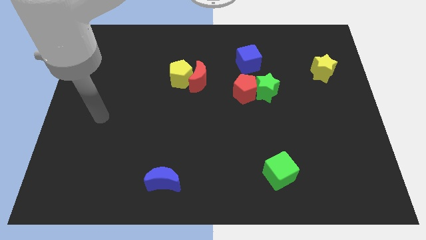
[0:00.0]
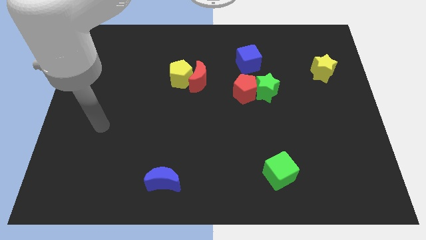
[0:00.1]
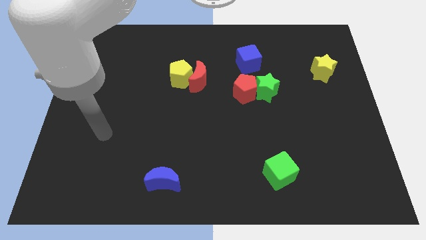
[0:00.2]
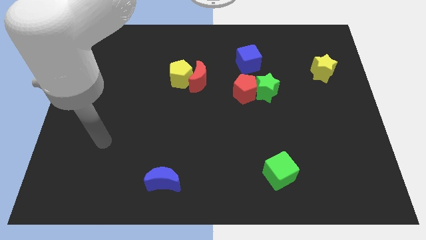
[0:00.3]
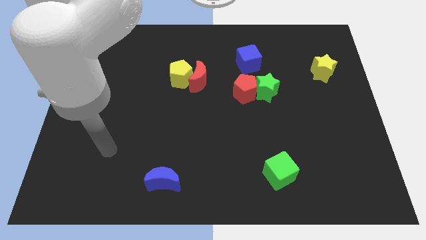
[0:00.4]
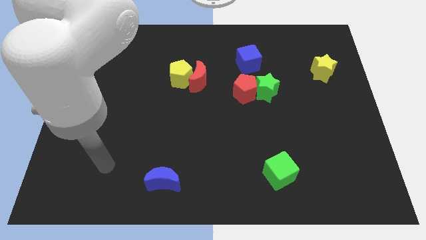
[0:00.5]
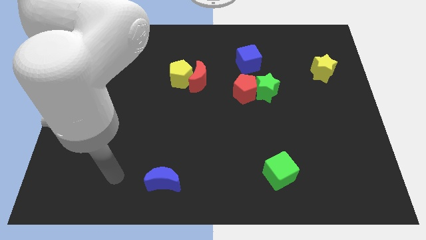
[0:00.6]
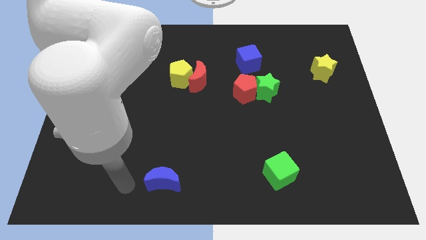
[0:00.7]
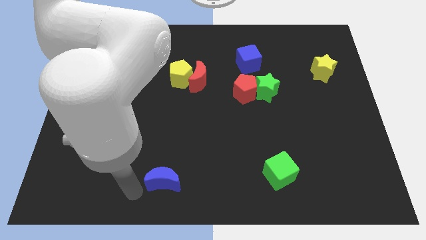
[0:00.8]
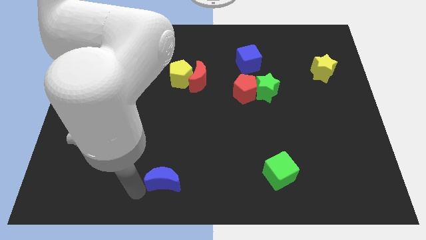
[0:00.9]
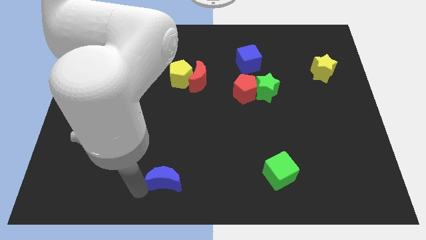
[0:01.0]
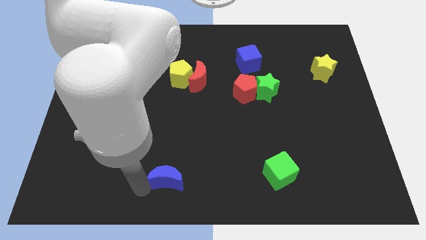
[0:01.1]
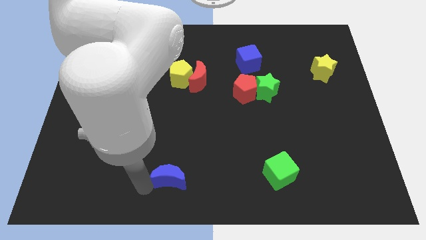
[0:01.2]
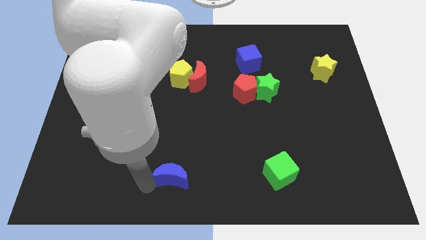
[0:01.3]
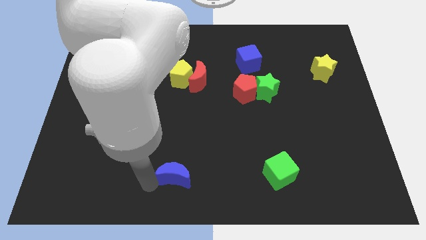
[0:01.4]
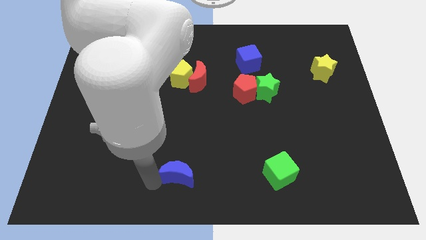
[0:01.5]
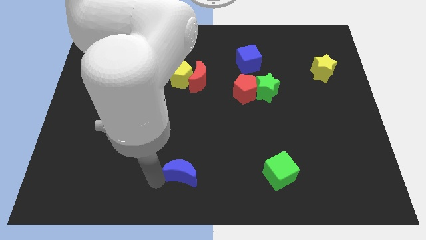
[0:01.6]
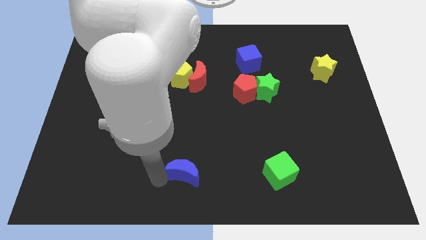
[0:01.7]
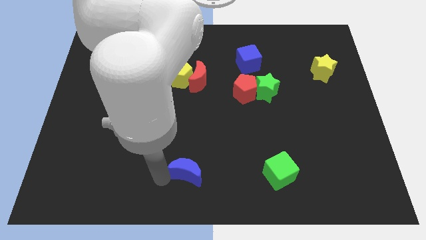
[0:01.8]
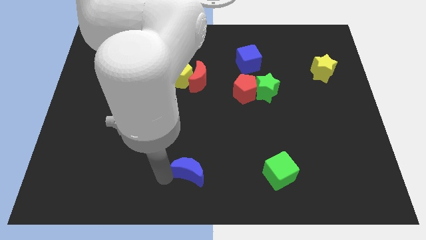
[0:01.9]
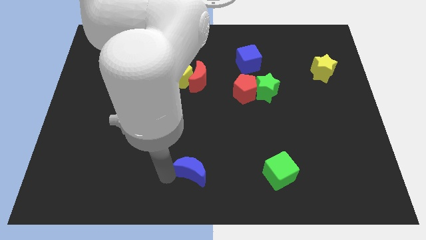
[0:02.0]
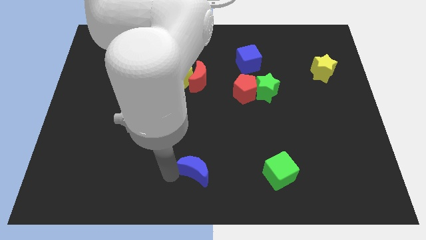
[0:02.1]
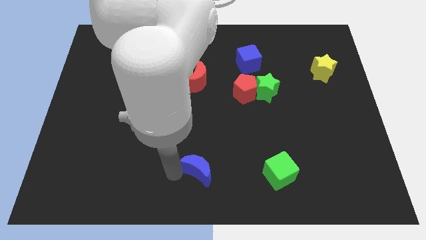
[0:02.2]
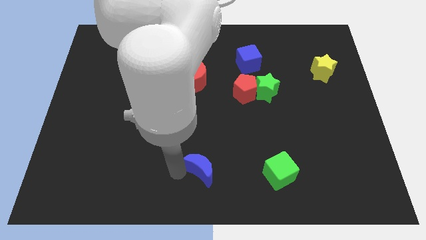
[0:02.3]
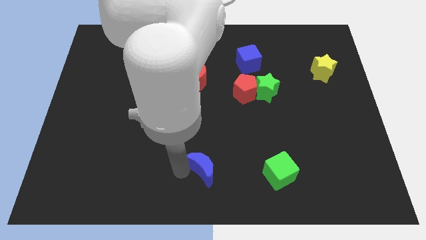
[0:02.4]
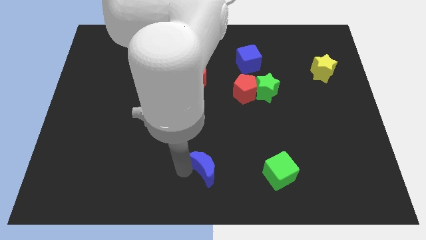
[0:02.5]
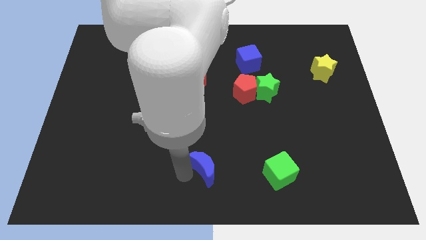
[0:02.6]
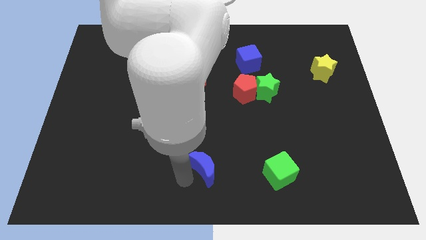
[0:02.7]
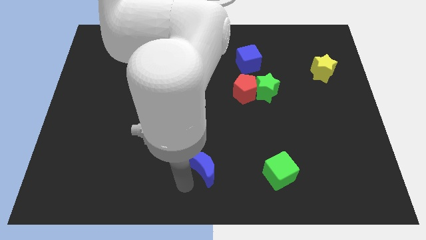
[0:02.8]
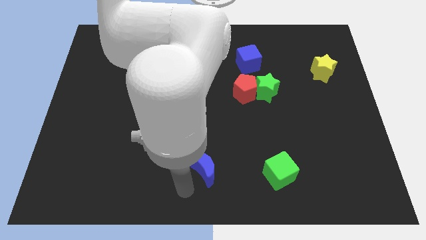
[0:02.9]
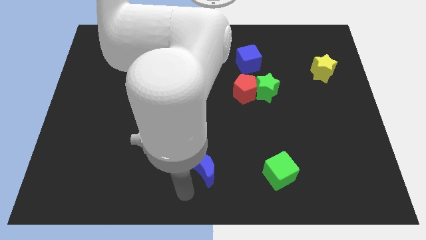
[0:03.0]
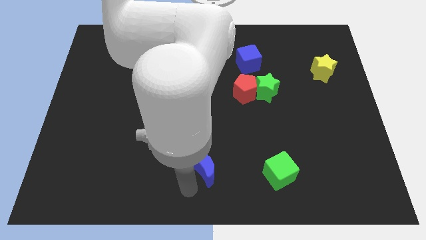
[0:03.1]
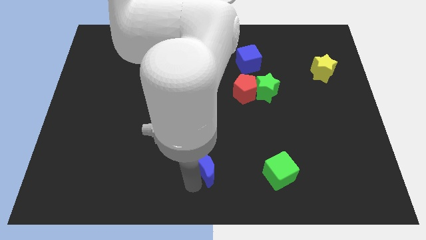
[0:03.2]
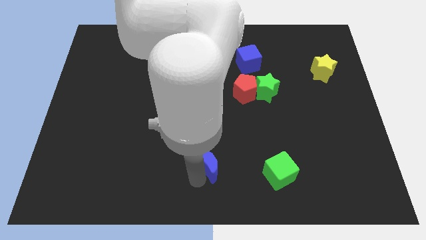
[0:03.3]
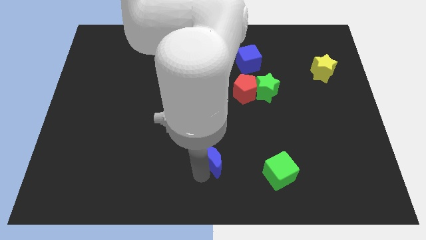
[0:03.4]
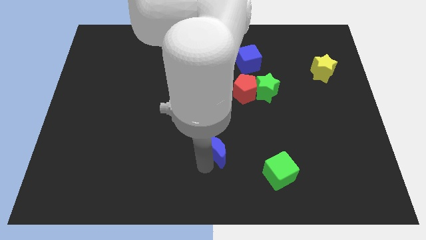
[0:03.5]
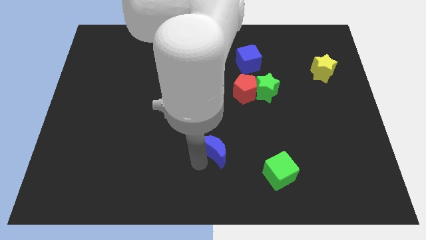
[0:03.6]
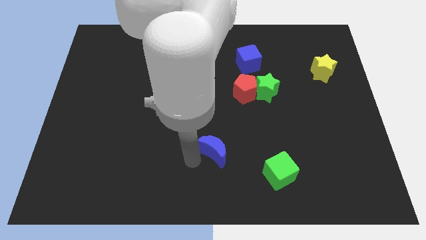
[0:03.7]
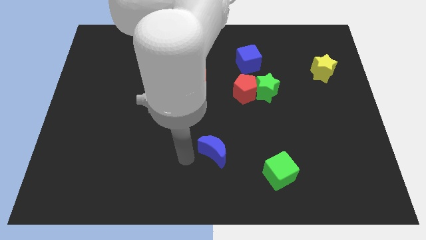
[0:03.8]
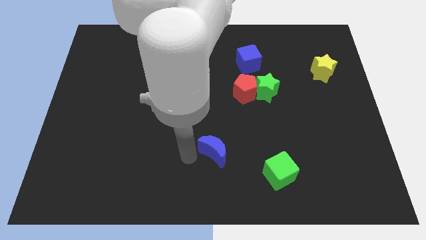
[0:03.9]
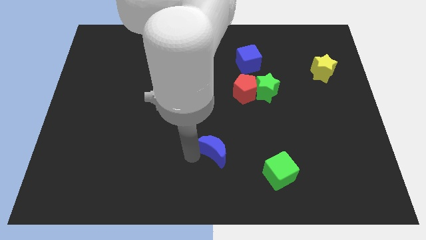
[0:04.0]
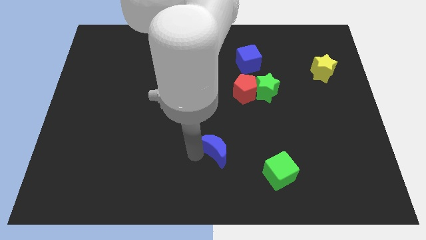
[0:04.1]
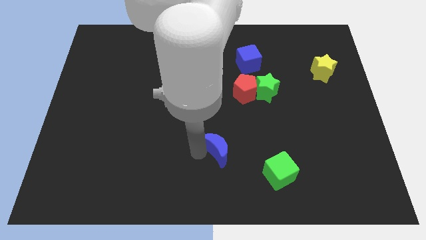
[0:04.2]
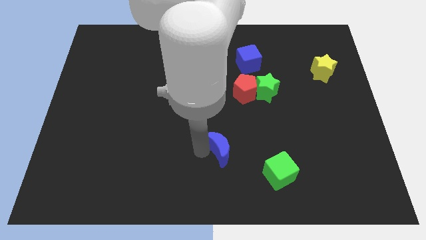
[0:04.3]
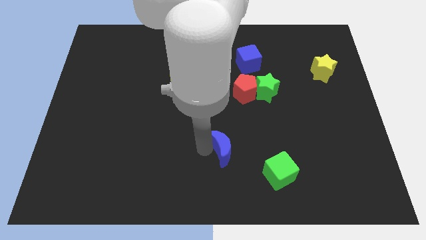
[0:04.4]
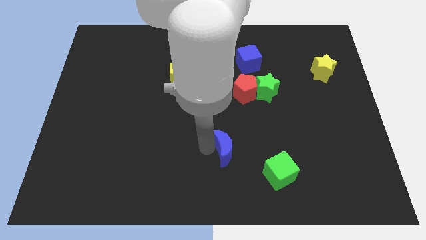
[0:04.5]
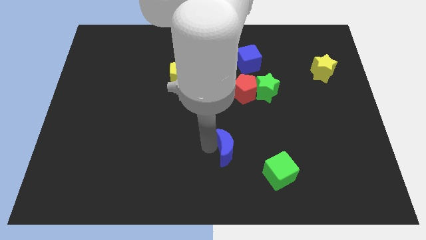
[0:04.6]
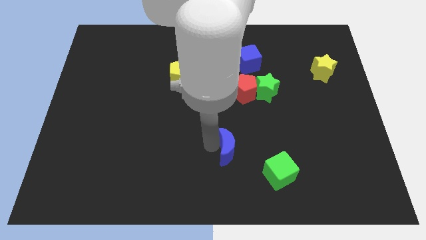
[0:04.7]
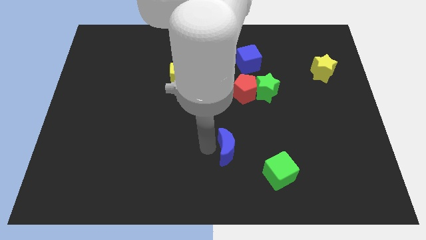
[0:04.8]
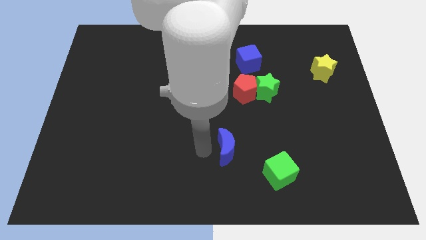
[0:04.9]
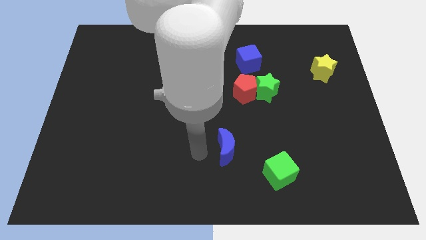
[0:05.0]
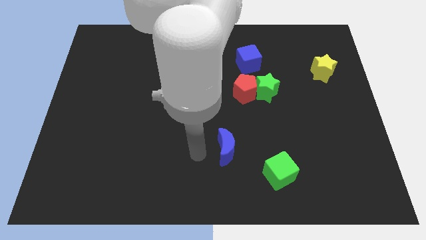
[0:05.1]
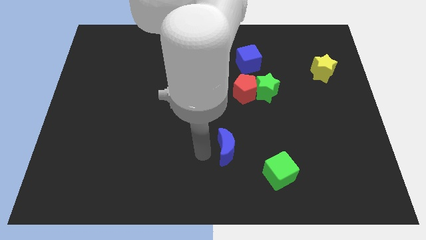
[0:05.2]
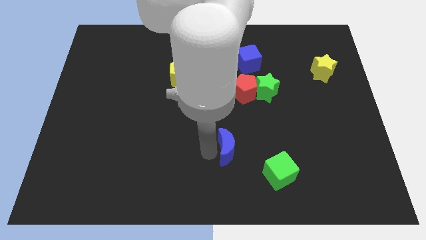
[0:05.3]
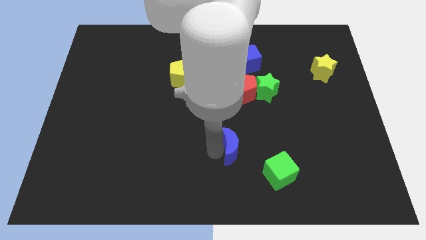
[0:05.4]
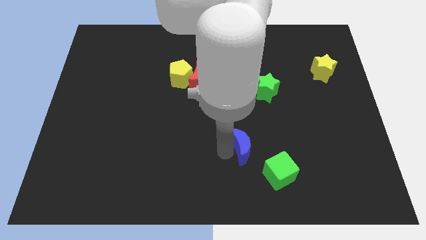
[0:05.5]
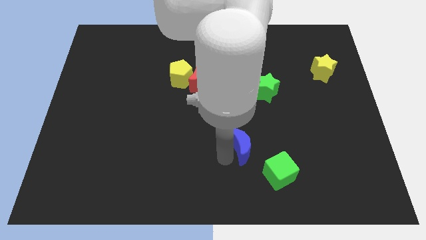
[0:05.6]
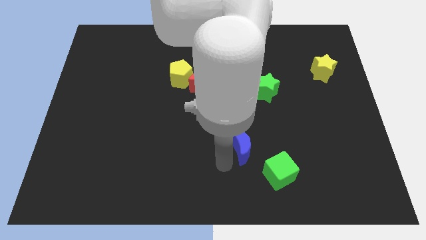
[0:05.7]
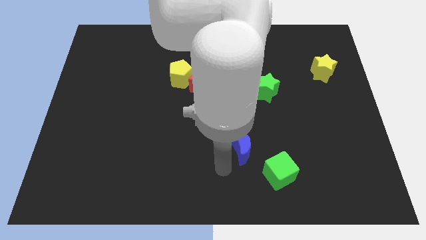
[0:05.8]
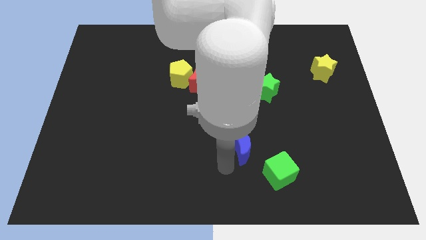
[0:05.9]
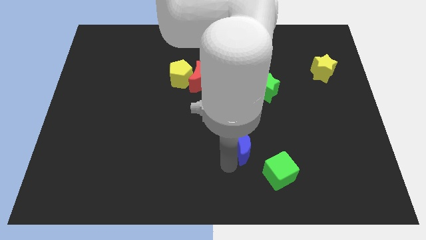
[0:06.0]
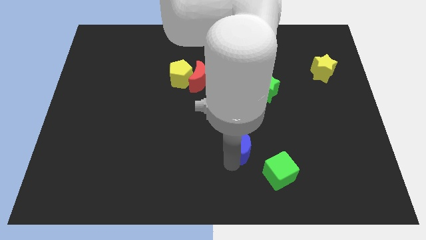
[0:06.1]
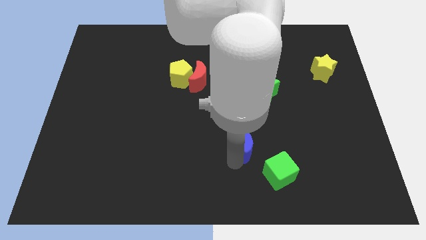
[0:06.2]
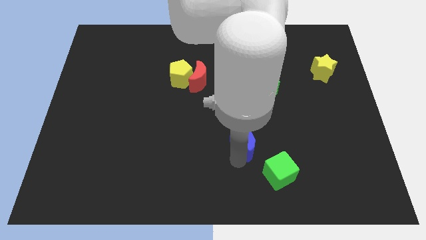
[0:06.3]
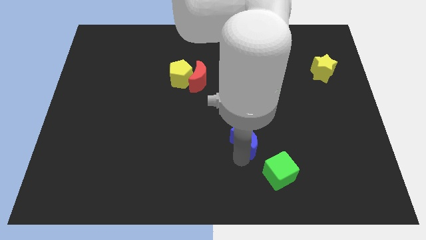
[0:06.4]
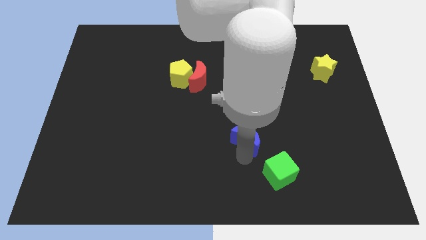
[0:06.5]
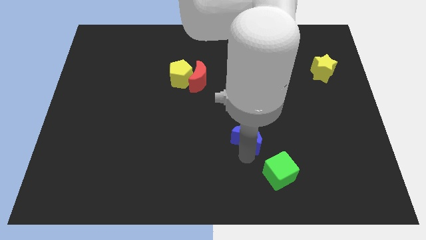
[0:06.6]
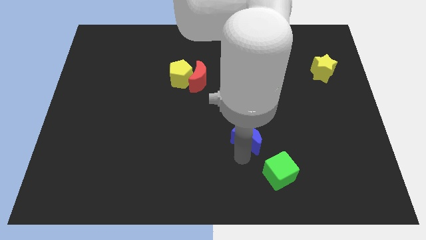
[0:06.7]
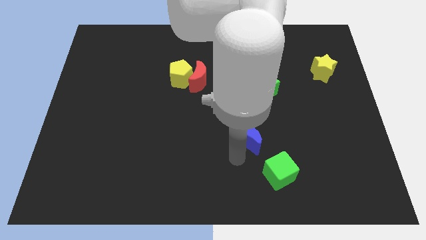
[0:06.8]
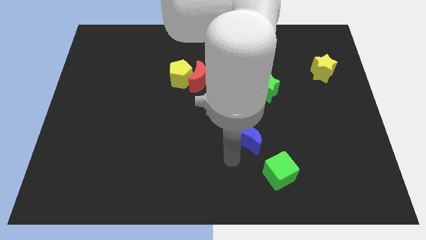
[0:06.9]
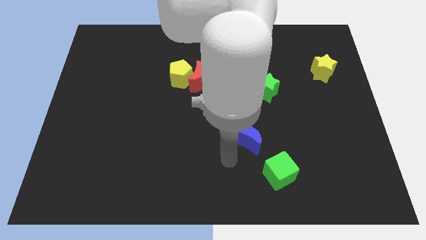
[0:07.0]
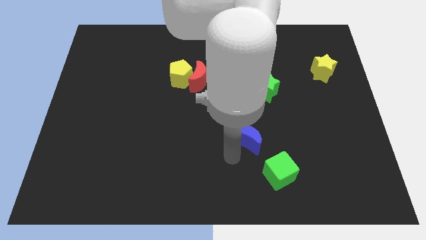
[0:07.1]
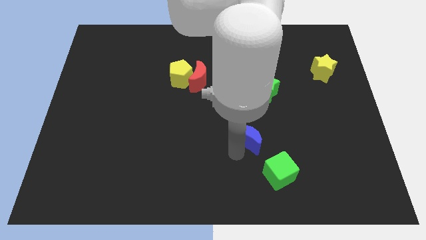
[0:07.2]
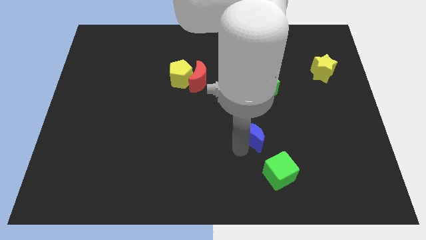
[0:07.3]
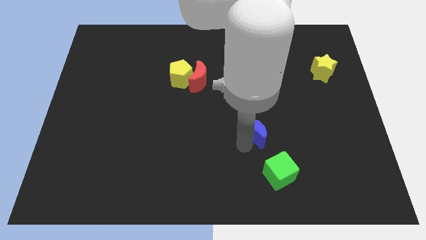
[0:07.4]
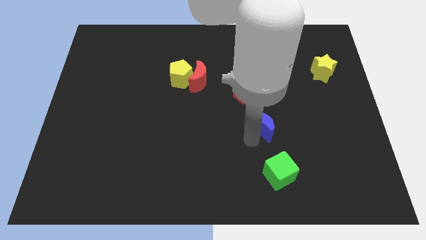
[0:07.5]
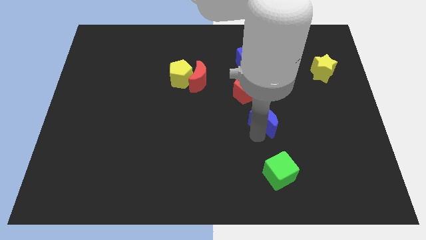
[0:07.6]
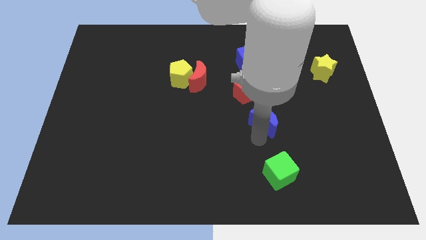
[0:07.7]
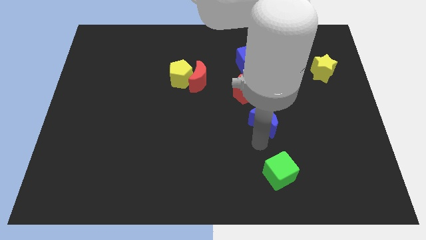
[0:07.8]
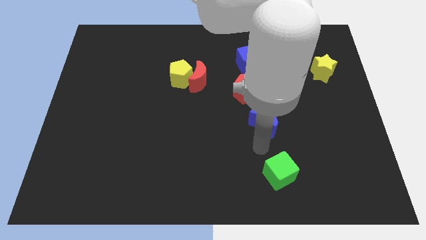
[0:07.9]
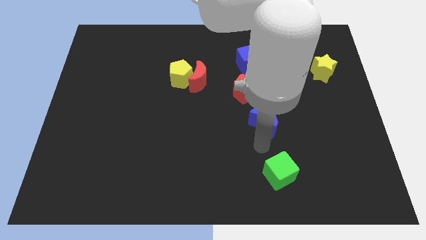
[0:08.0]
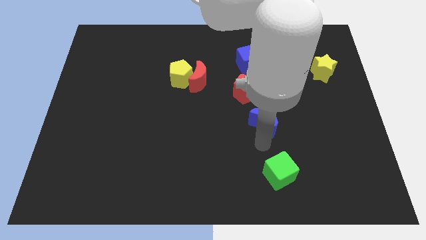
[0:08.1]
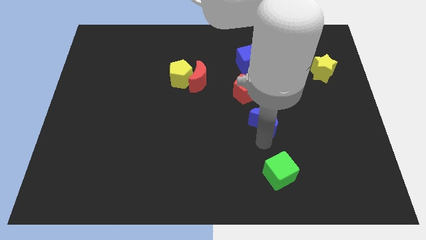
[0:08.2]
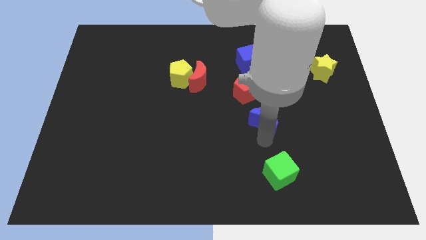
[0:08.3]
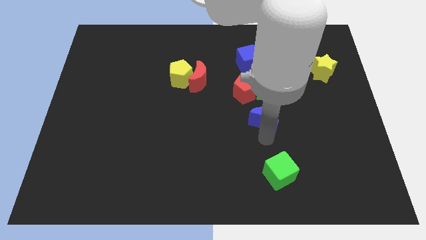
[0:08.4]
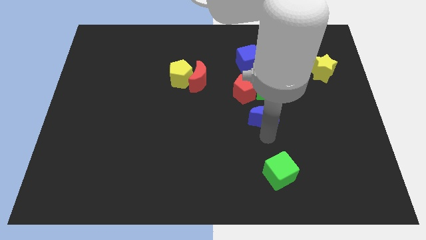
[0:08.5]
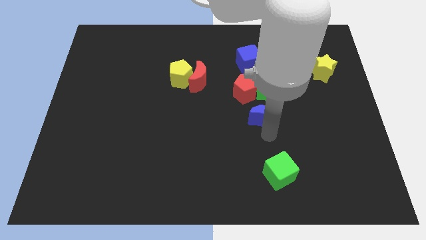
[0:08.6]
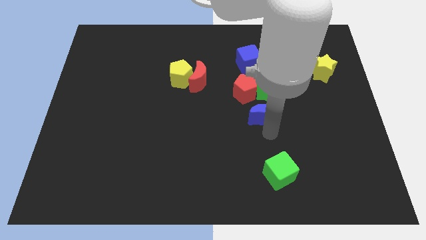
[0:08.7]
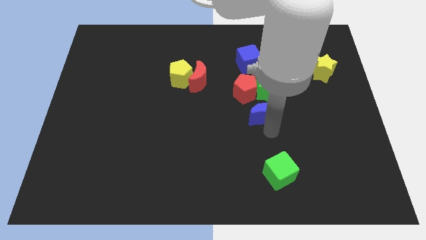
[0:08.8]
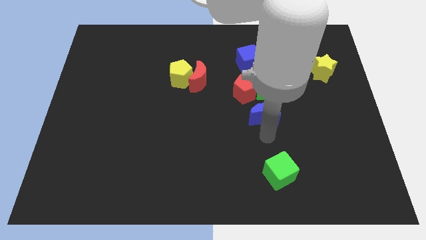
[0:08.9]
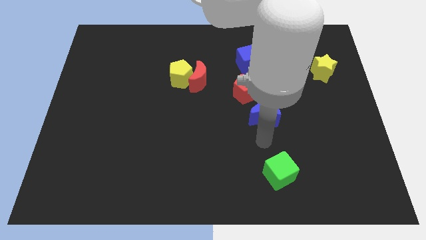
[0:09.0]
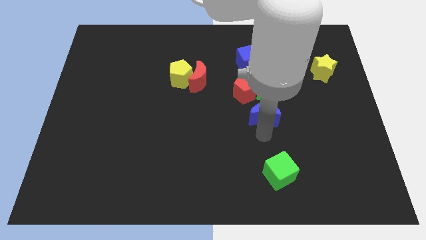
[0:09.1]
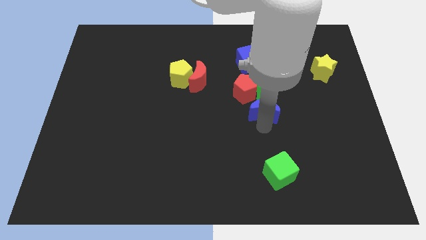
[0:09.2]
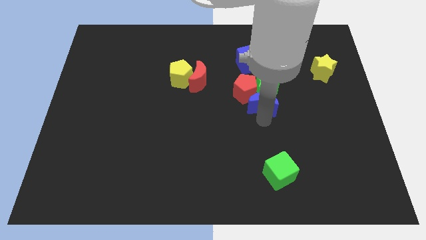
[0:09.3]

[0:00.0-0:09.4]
push the blue moon to the green star
